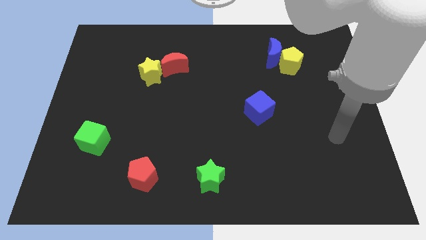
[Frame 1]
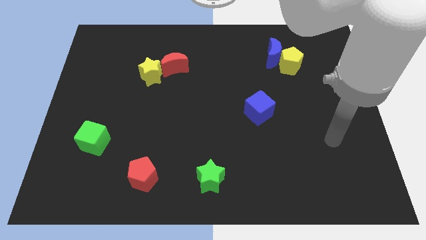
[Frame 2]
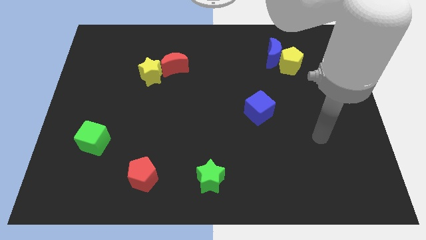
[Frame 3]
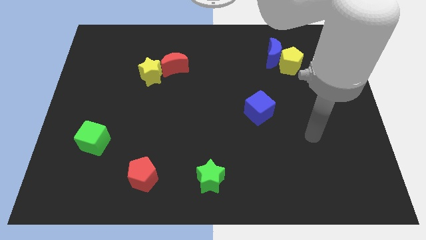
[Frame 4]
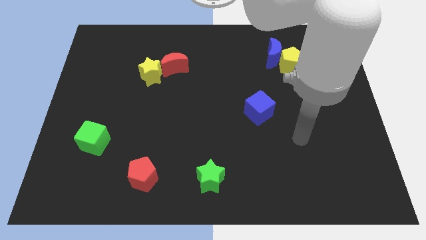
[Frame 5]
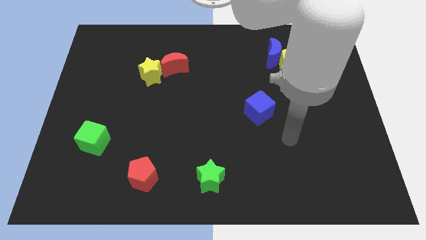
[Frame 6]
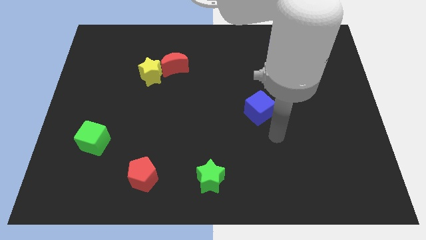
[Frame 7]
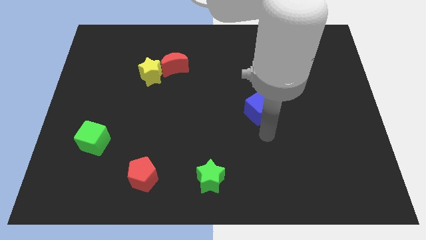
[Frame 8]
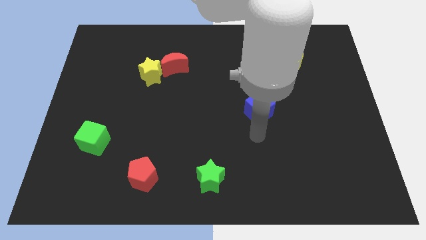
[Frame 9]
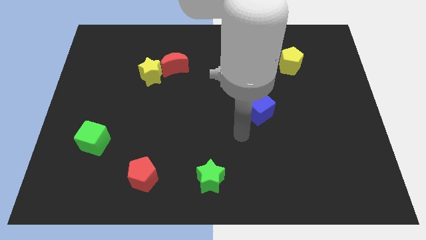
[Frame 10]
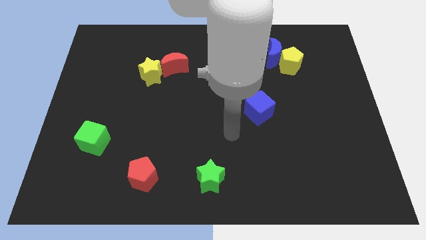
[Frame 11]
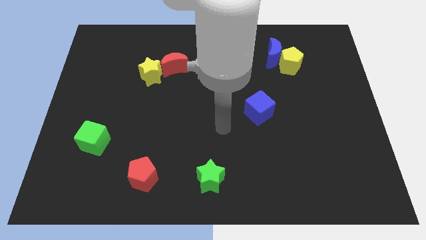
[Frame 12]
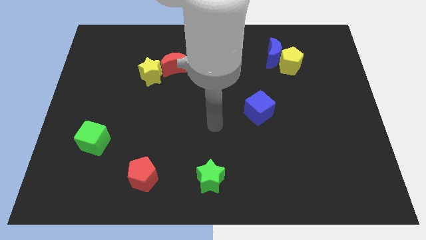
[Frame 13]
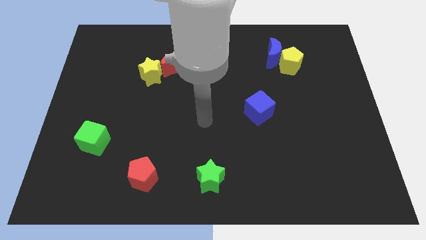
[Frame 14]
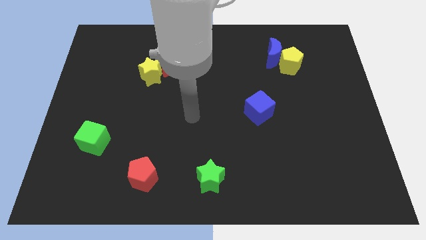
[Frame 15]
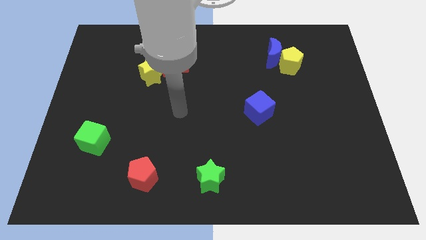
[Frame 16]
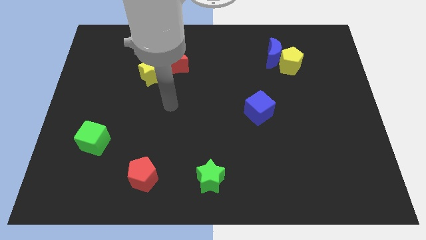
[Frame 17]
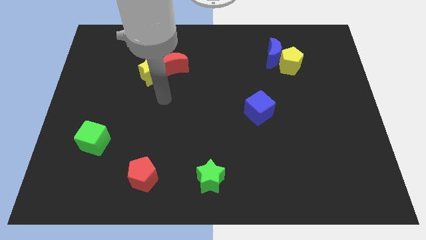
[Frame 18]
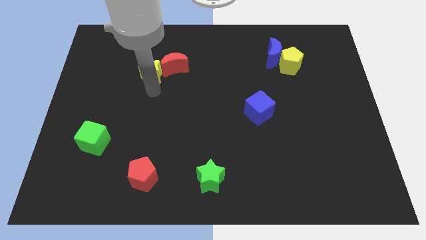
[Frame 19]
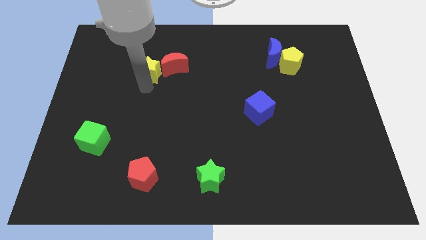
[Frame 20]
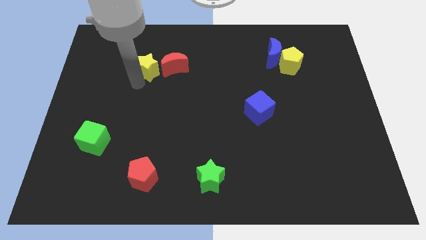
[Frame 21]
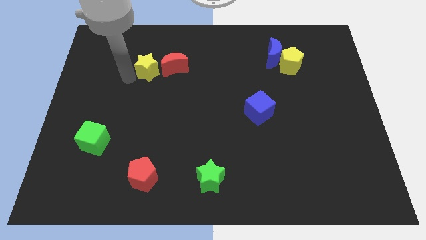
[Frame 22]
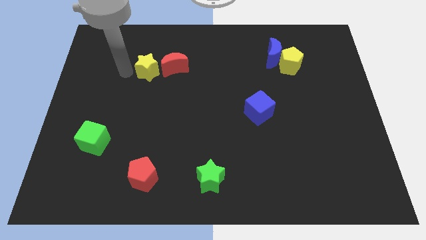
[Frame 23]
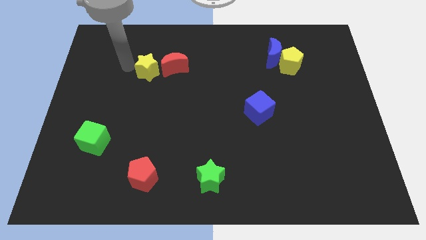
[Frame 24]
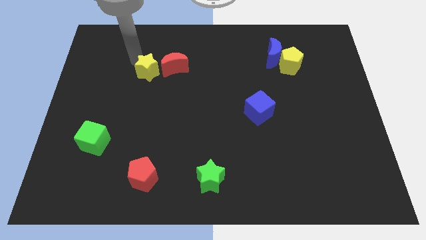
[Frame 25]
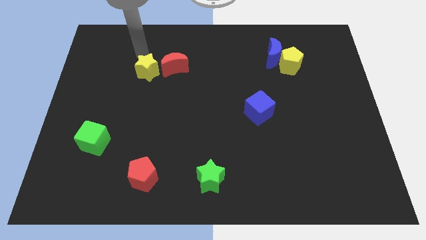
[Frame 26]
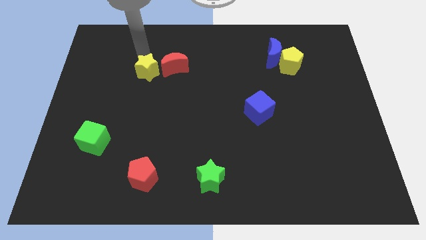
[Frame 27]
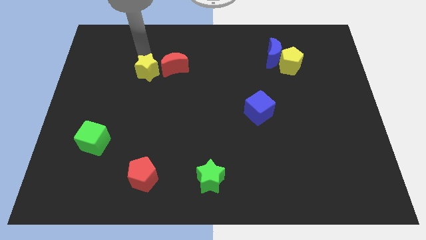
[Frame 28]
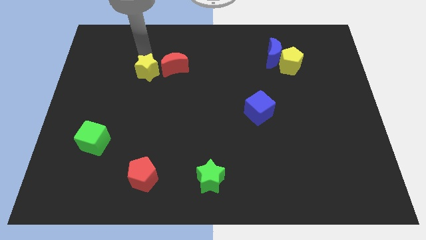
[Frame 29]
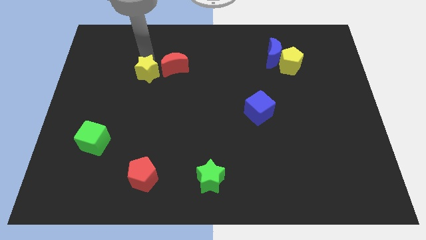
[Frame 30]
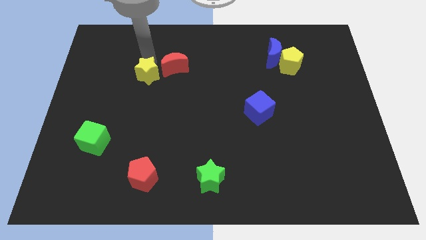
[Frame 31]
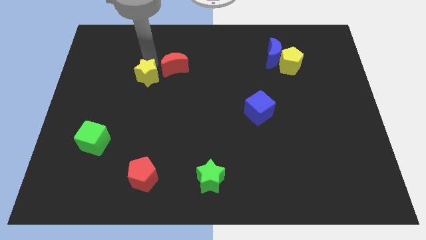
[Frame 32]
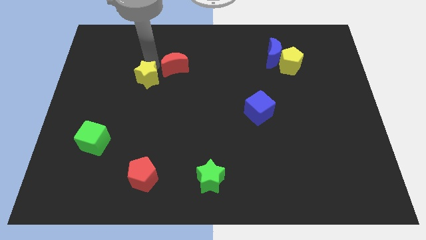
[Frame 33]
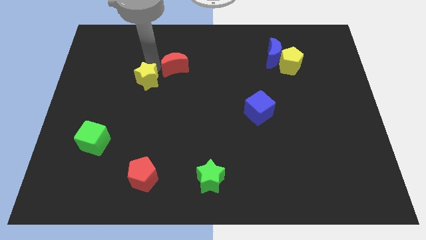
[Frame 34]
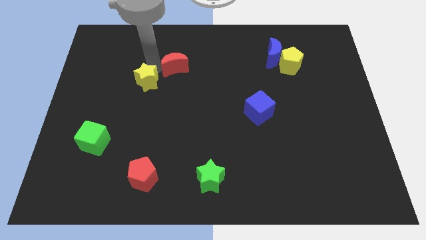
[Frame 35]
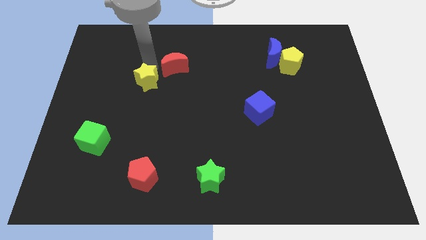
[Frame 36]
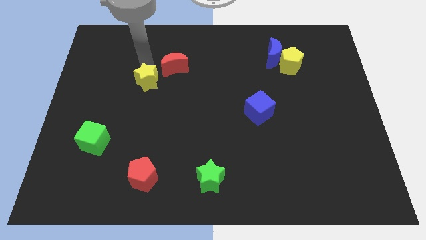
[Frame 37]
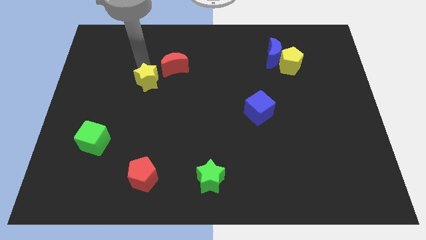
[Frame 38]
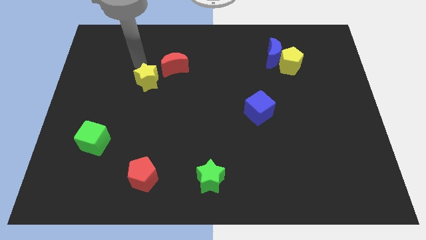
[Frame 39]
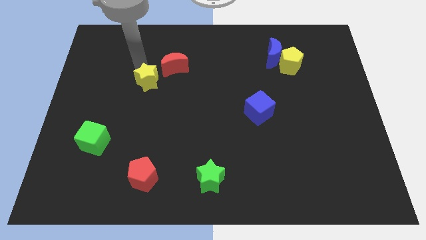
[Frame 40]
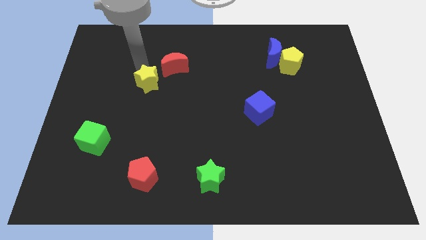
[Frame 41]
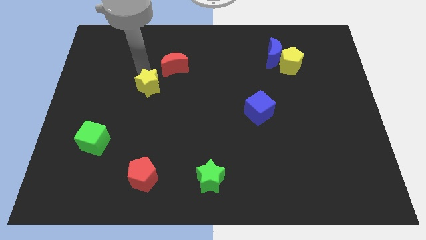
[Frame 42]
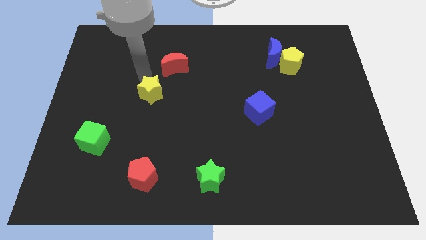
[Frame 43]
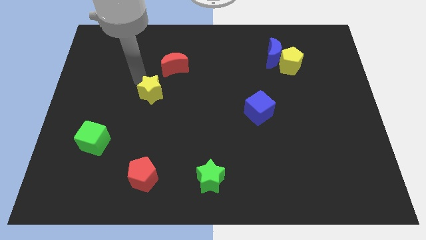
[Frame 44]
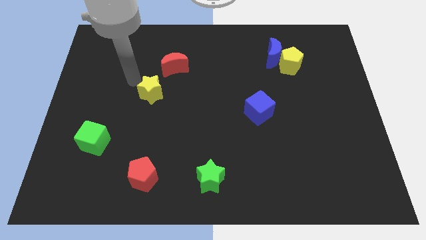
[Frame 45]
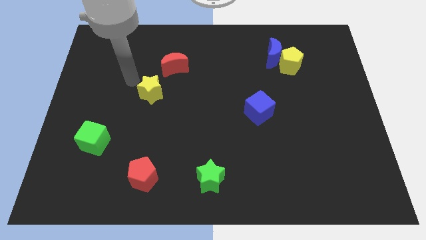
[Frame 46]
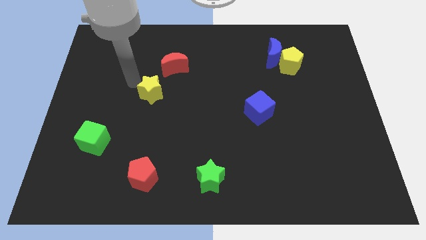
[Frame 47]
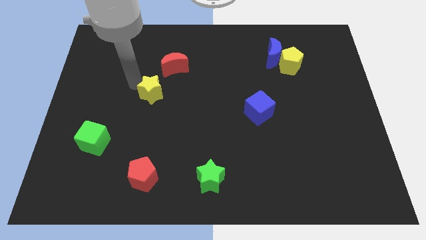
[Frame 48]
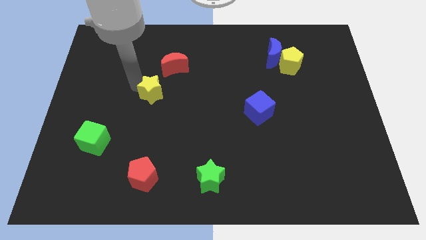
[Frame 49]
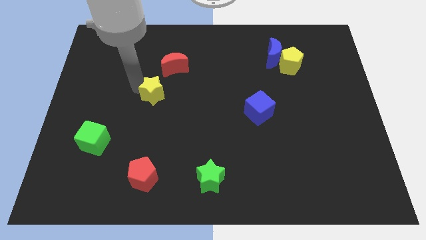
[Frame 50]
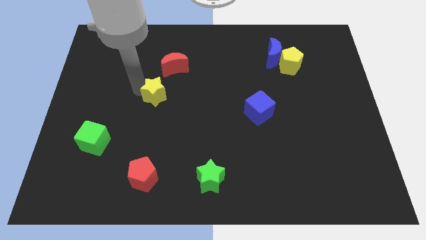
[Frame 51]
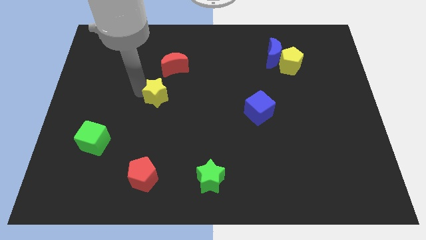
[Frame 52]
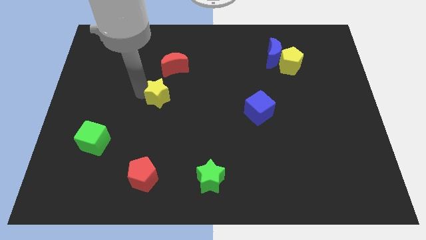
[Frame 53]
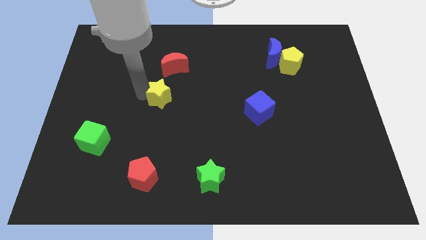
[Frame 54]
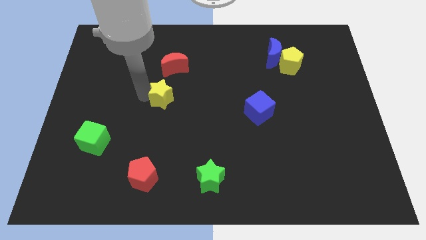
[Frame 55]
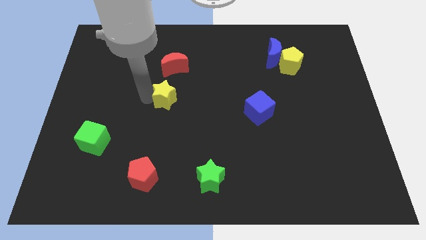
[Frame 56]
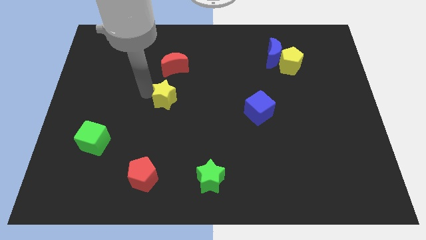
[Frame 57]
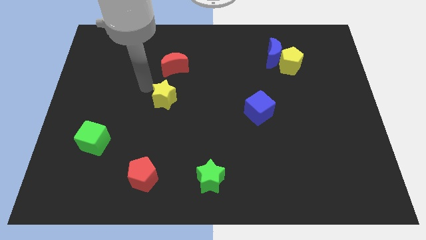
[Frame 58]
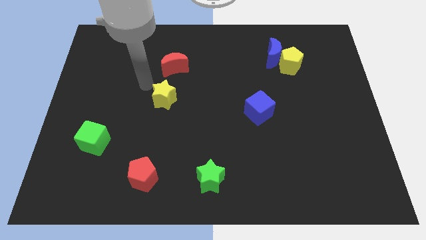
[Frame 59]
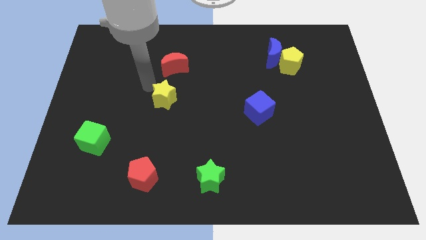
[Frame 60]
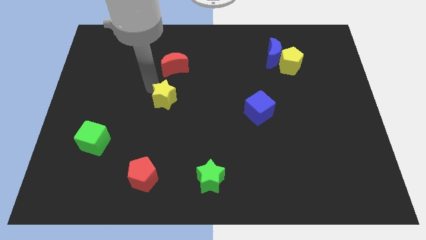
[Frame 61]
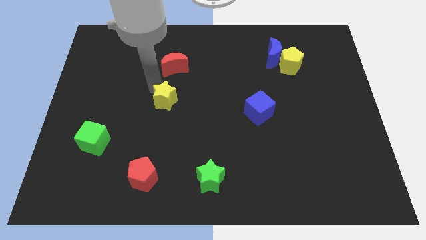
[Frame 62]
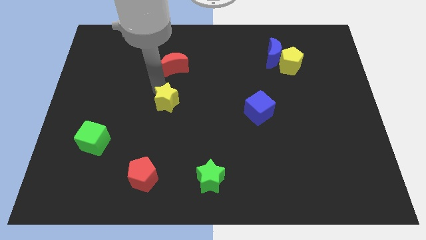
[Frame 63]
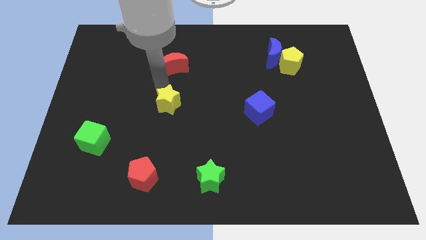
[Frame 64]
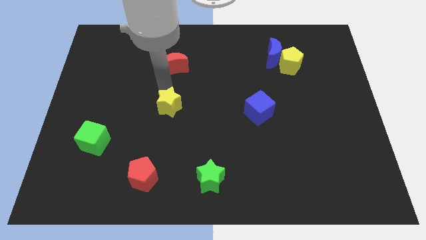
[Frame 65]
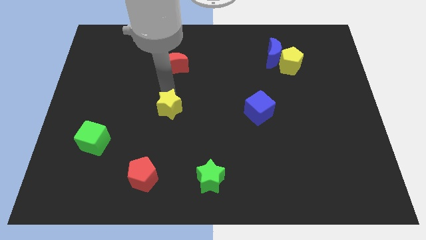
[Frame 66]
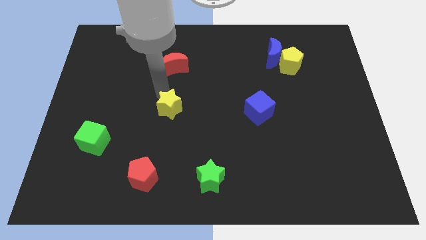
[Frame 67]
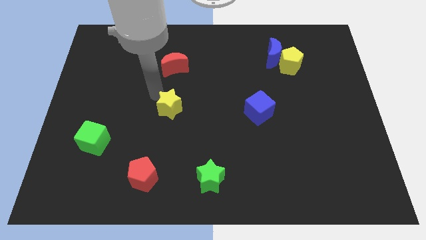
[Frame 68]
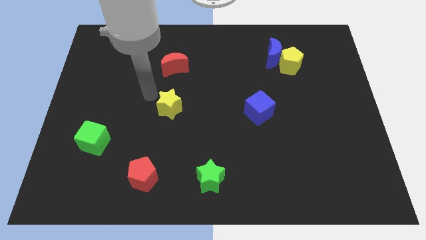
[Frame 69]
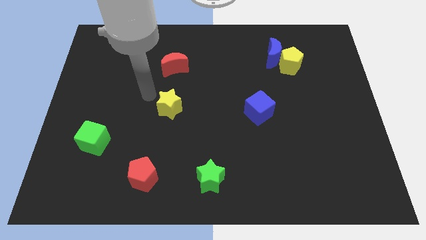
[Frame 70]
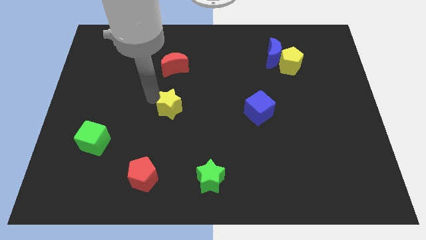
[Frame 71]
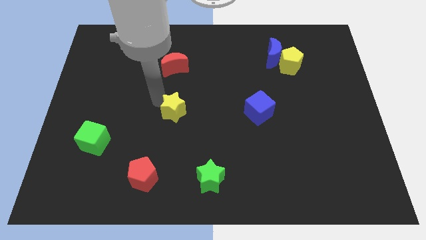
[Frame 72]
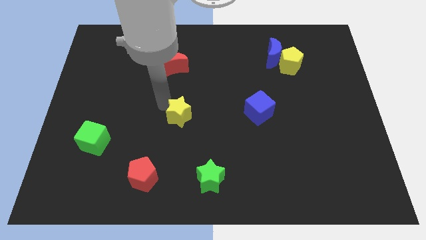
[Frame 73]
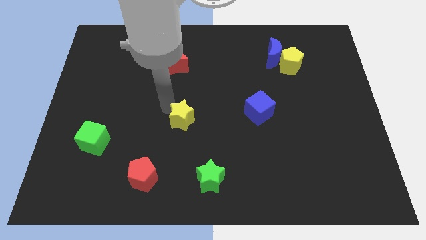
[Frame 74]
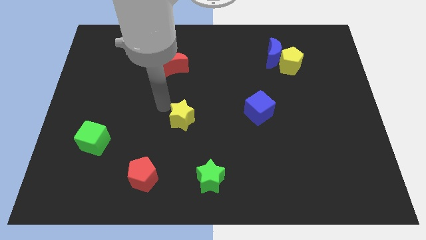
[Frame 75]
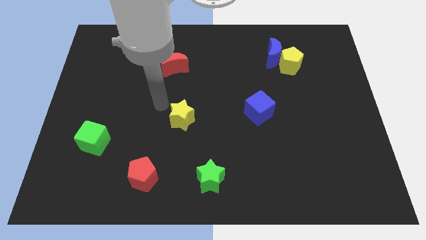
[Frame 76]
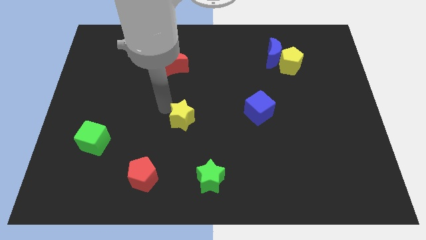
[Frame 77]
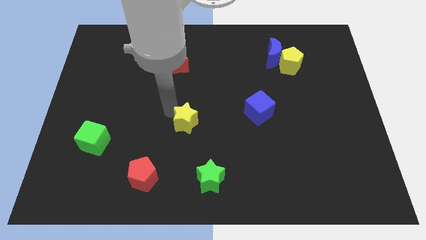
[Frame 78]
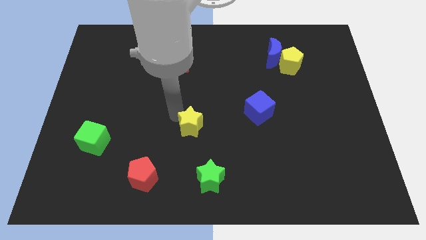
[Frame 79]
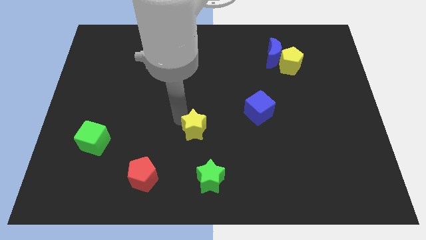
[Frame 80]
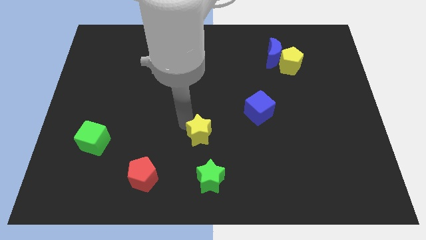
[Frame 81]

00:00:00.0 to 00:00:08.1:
push the yellow star diagonally downwards and to the right
